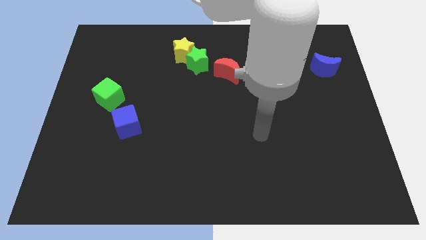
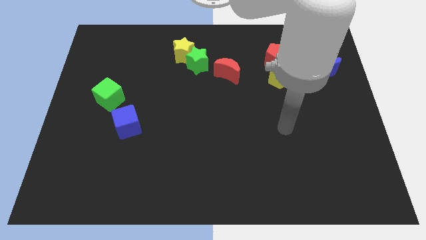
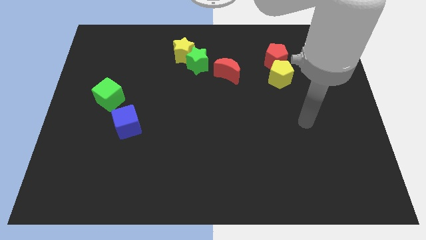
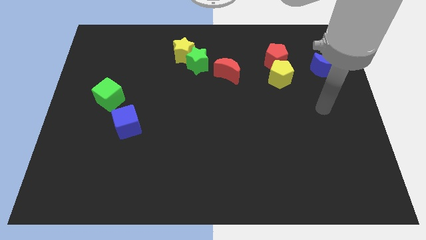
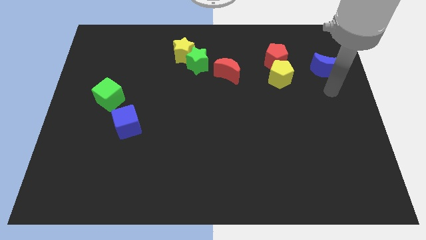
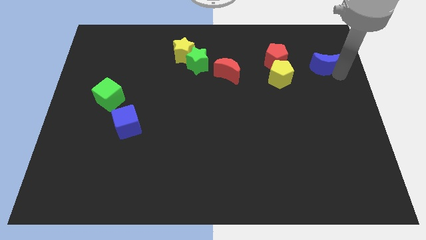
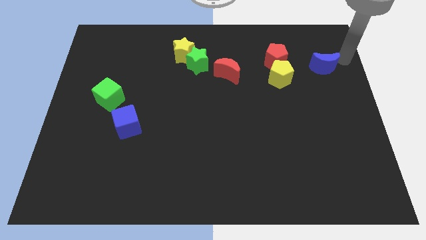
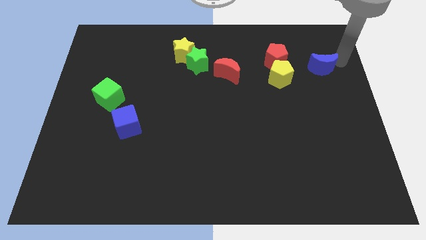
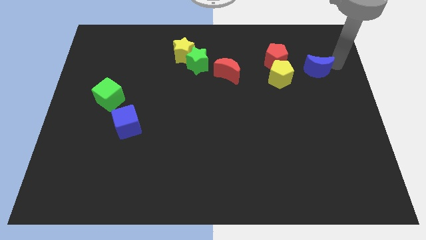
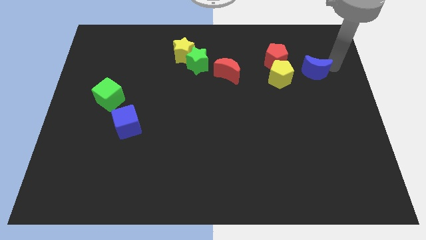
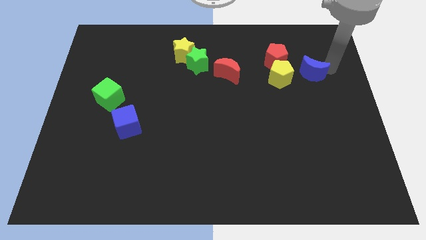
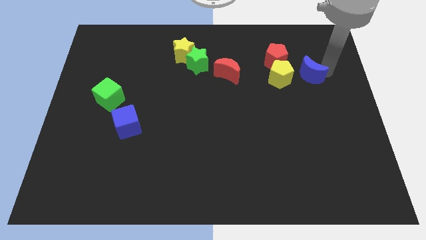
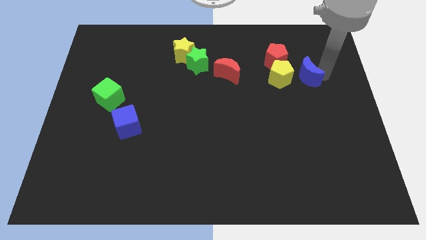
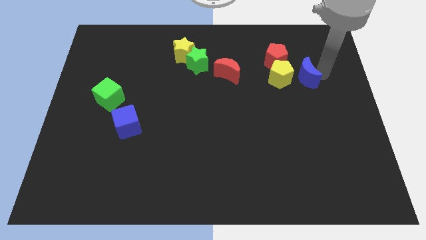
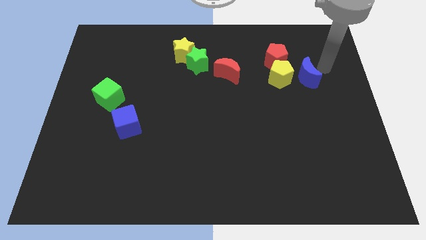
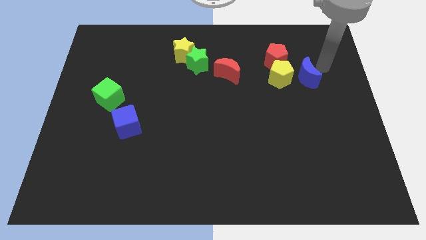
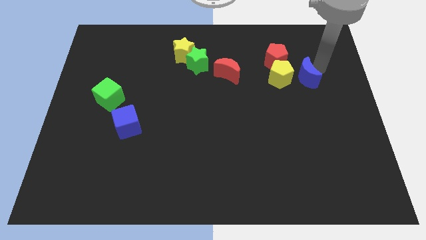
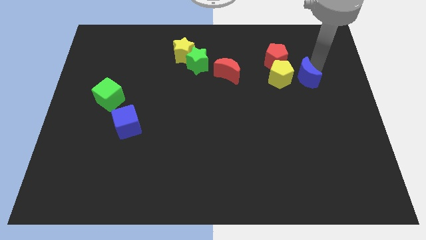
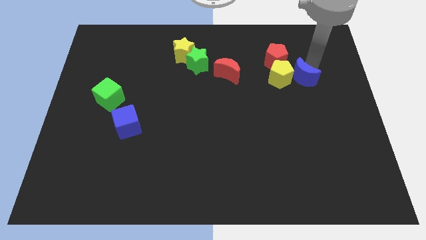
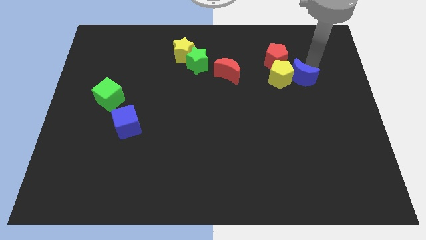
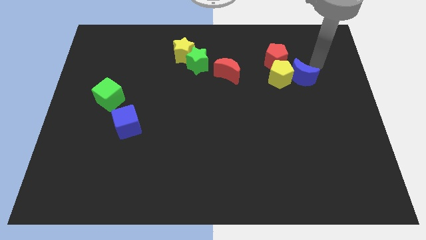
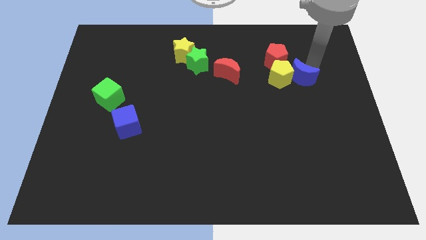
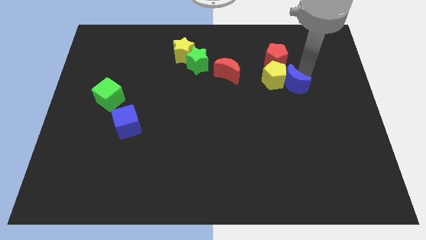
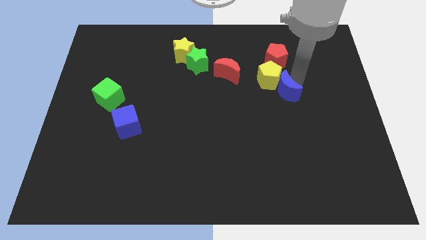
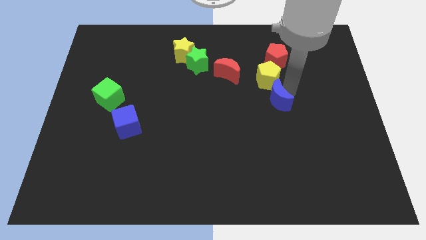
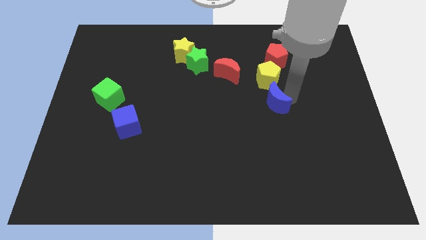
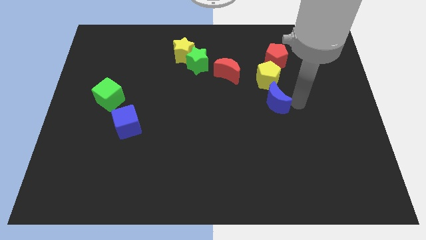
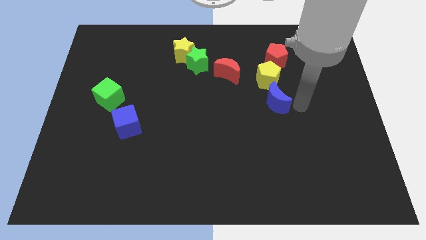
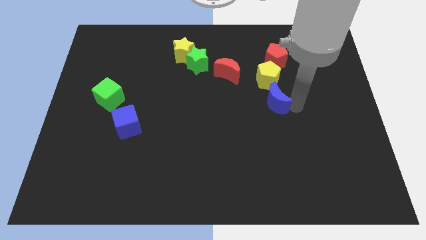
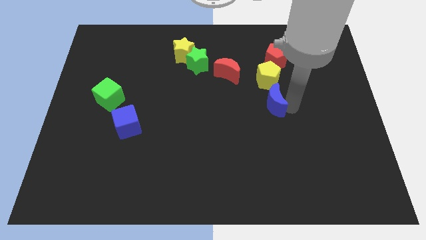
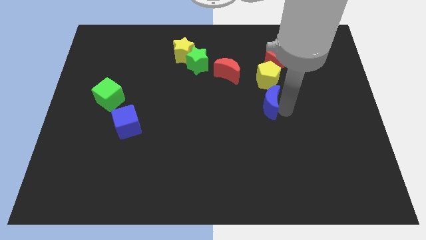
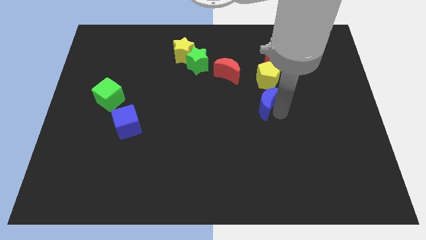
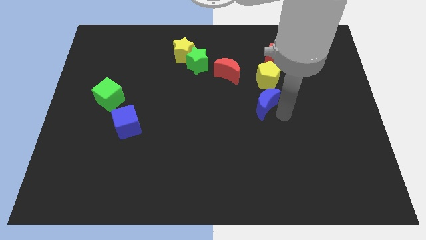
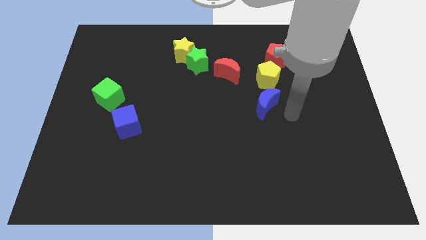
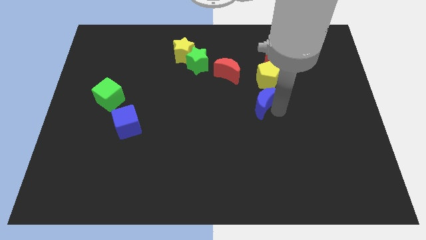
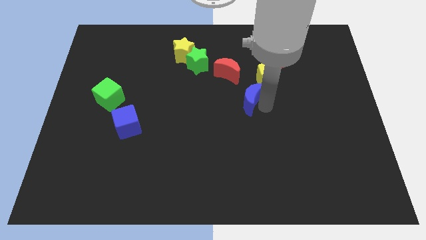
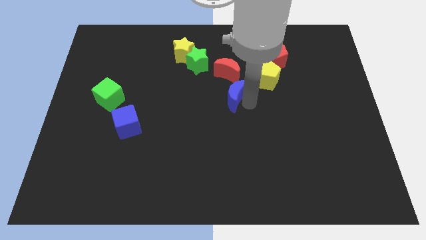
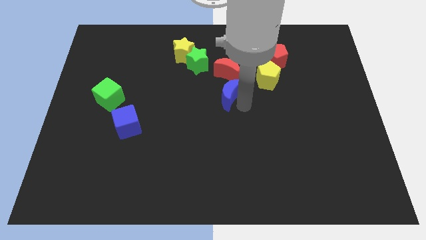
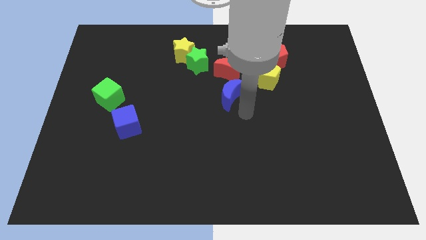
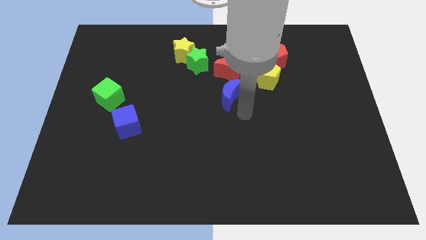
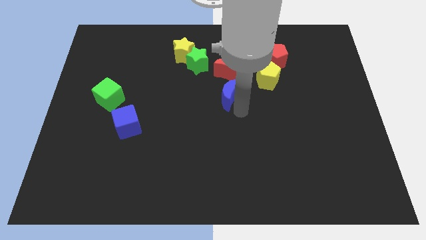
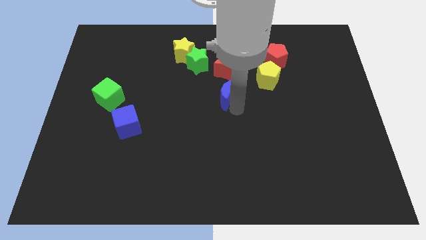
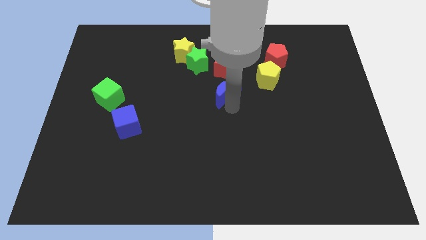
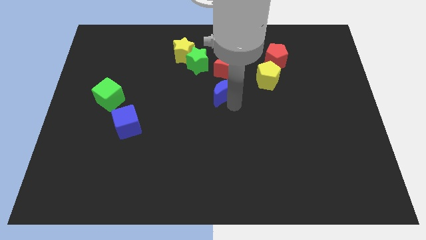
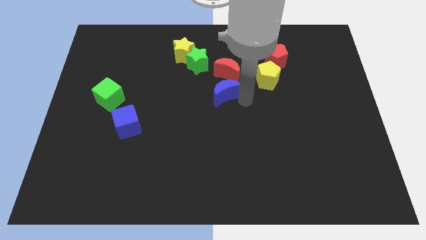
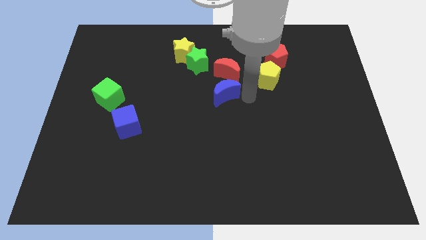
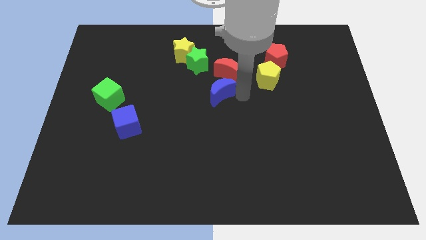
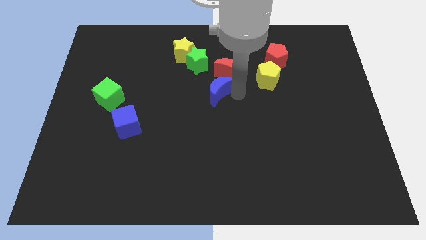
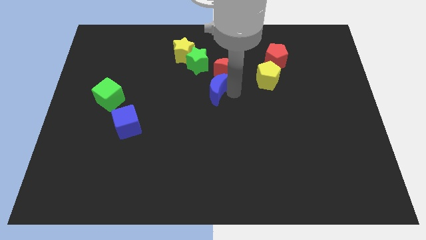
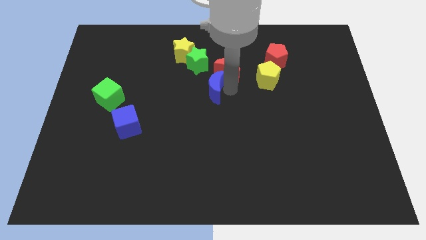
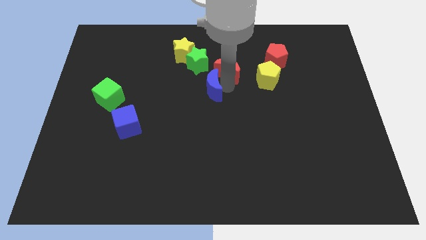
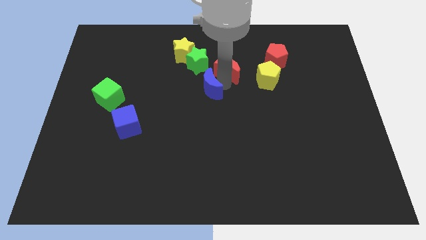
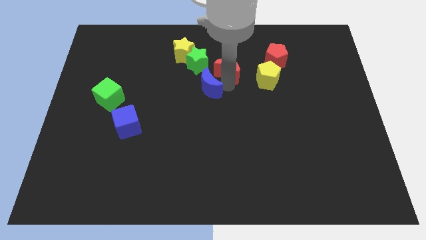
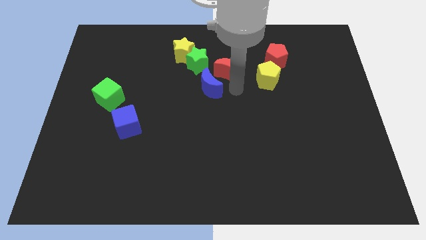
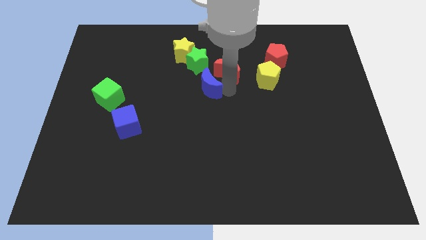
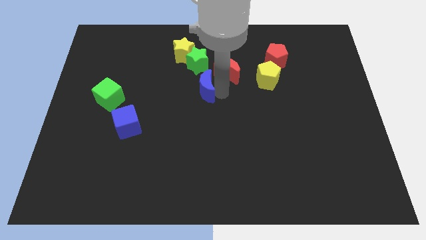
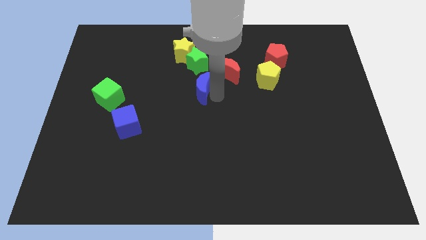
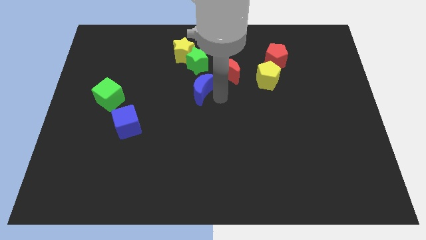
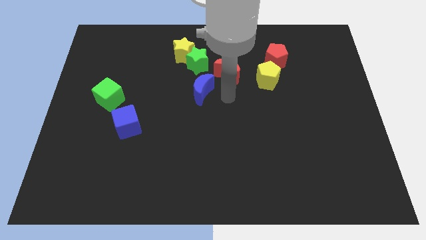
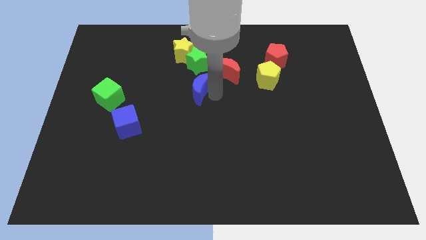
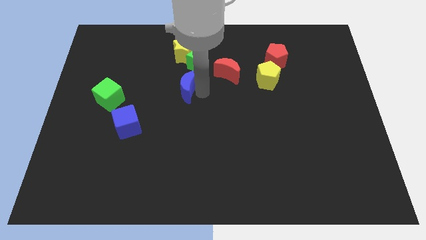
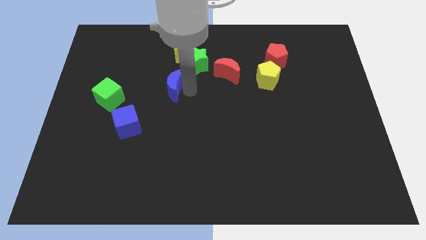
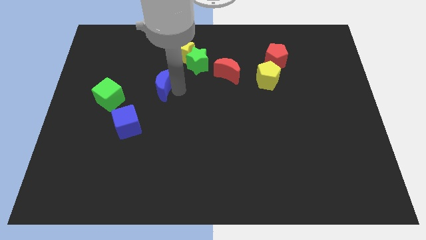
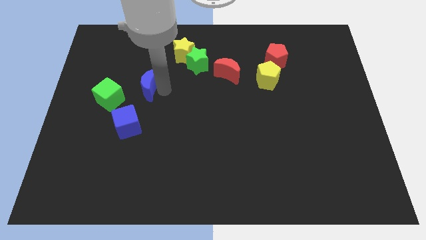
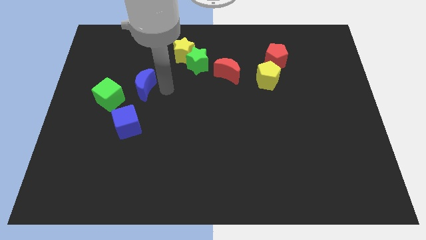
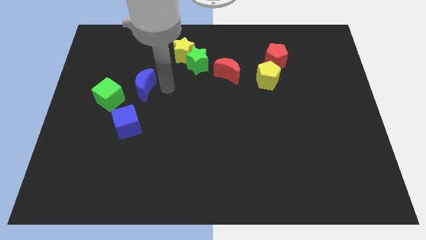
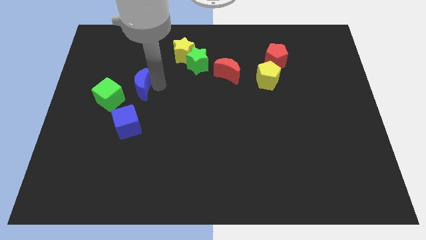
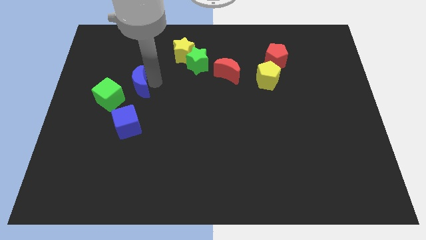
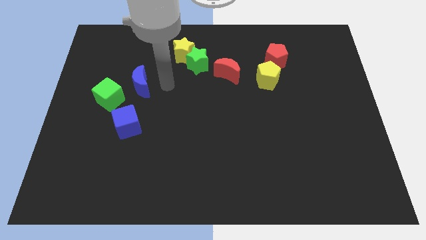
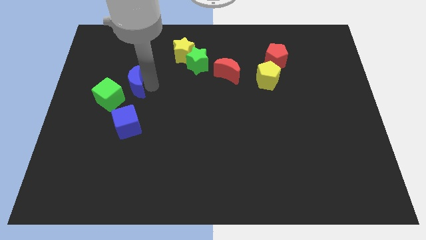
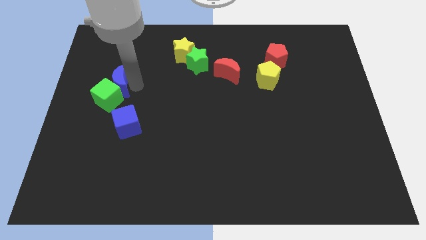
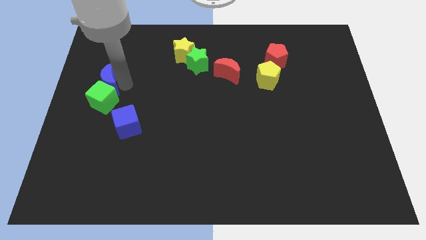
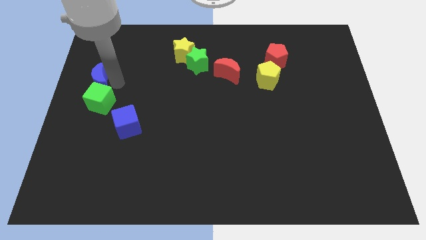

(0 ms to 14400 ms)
slide the blue moon to the center left
